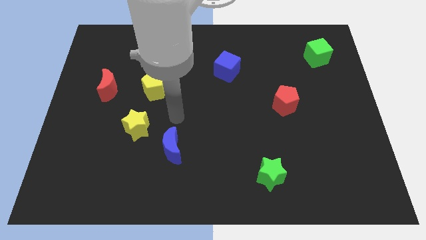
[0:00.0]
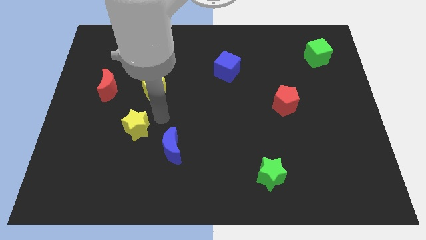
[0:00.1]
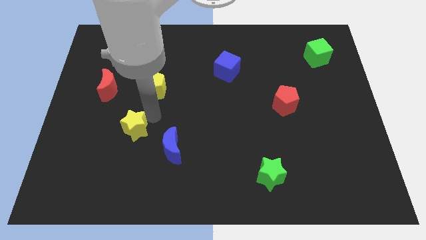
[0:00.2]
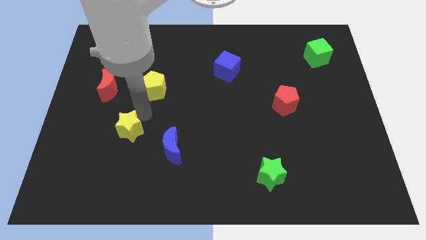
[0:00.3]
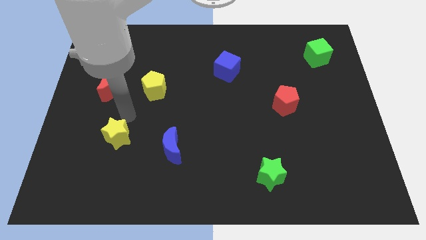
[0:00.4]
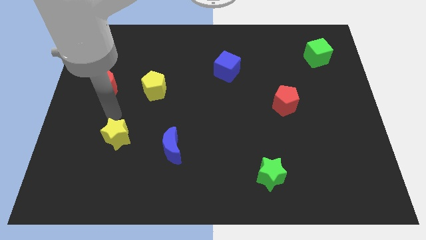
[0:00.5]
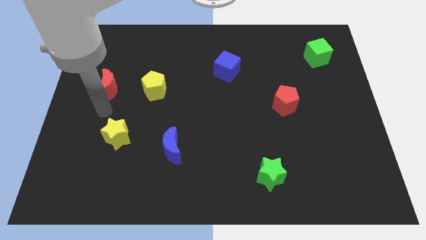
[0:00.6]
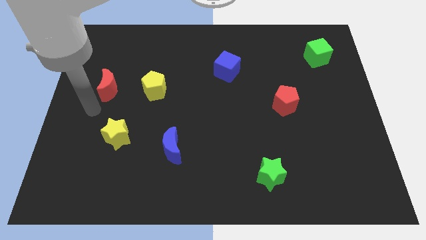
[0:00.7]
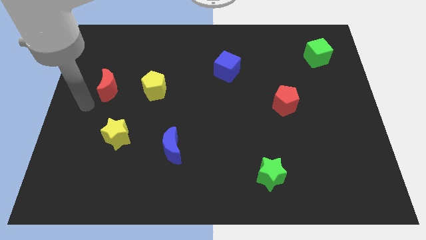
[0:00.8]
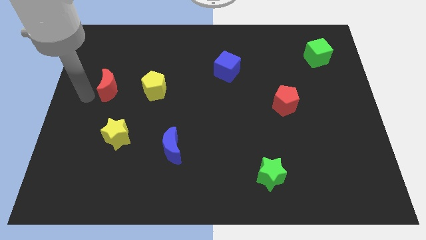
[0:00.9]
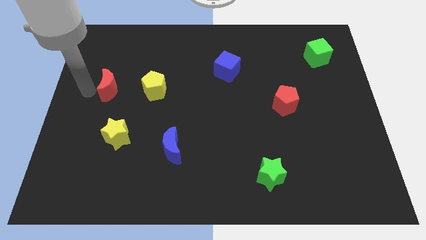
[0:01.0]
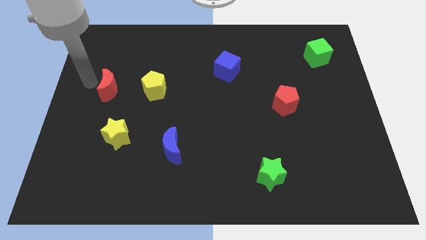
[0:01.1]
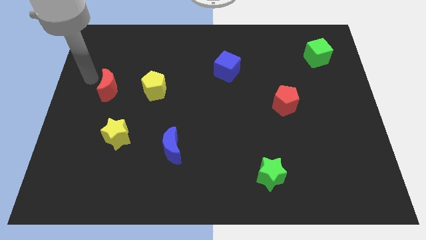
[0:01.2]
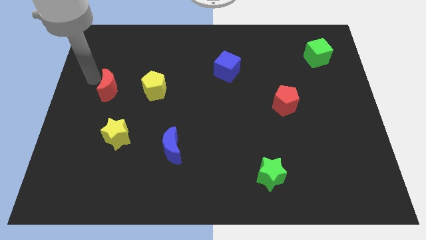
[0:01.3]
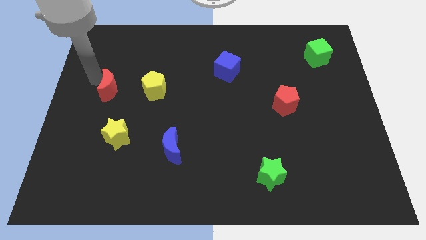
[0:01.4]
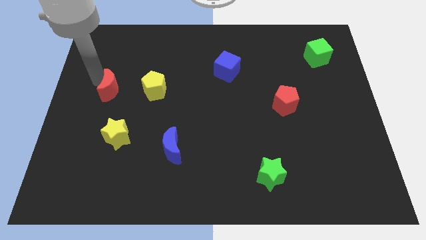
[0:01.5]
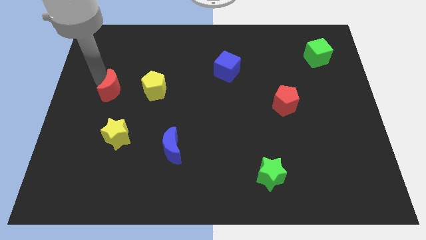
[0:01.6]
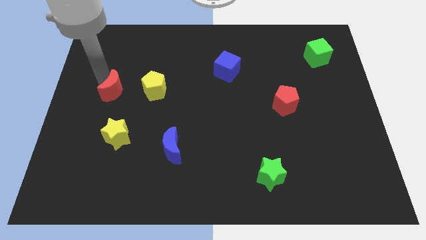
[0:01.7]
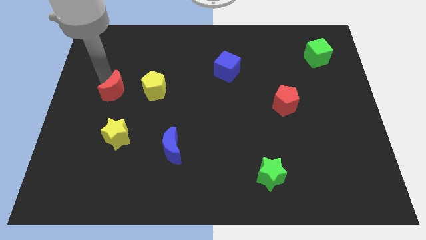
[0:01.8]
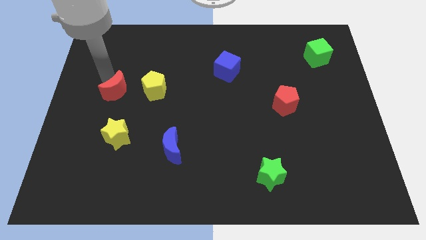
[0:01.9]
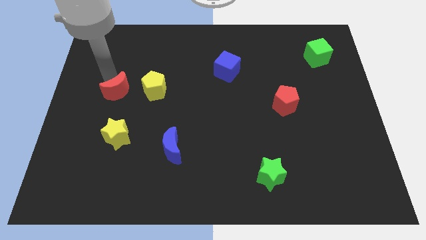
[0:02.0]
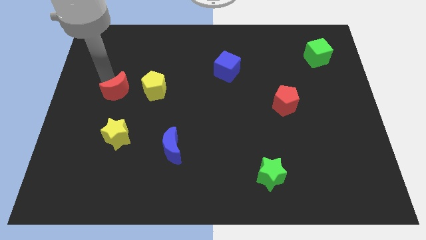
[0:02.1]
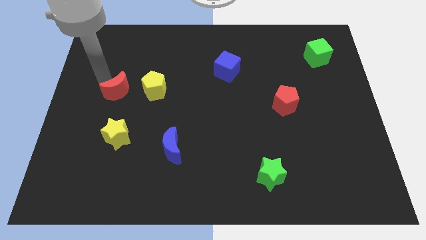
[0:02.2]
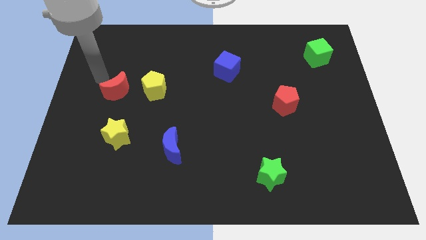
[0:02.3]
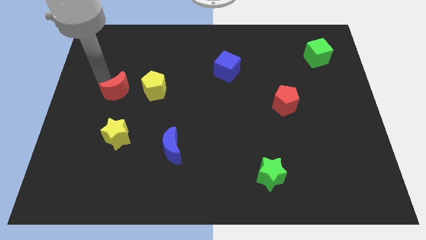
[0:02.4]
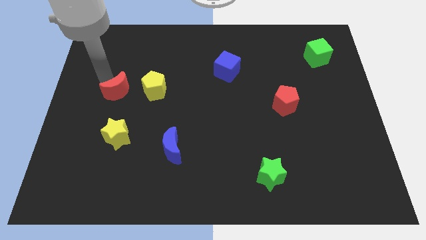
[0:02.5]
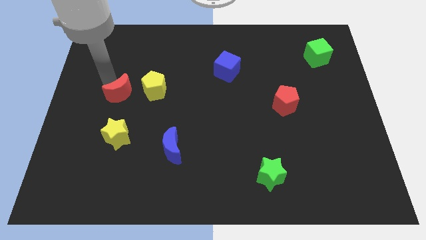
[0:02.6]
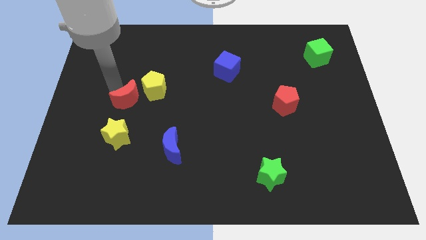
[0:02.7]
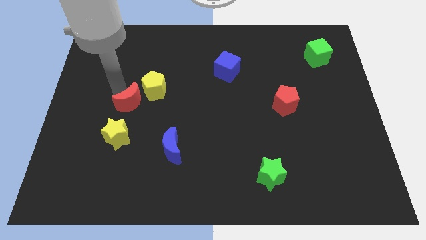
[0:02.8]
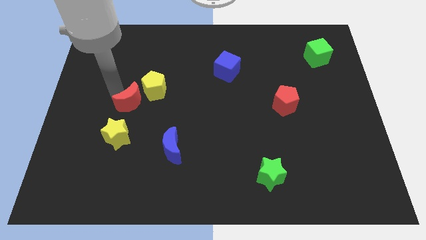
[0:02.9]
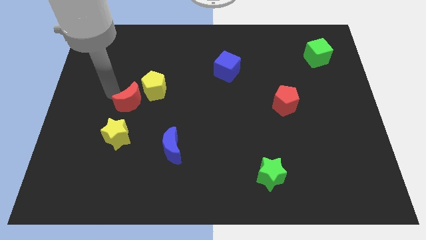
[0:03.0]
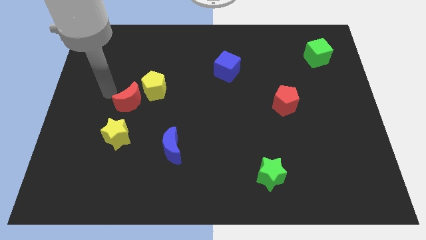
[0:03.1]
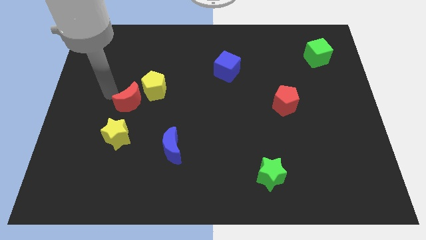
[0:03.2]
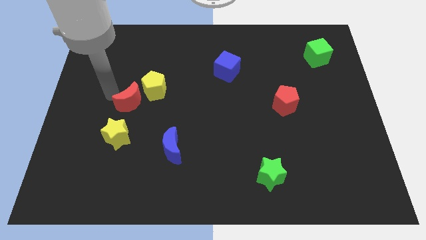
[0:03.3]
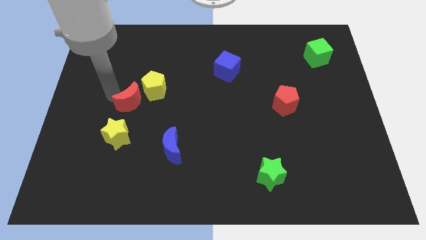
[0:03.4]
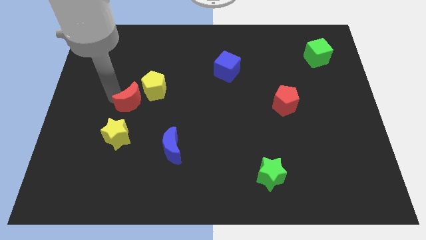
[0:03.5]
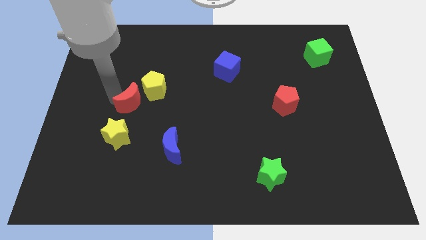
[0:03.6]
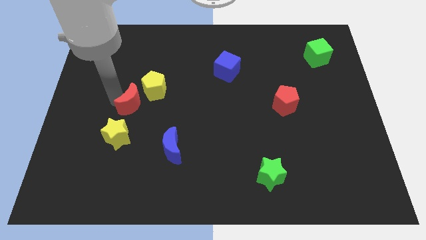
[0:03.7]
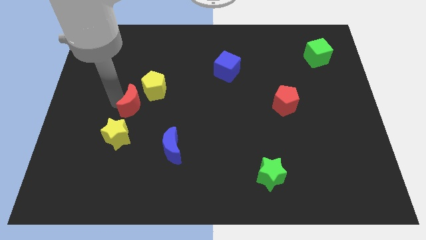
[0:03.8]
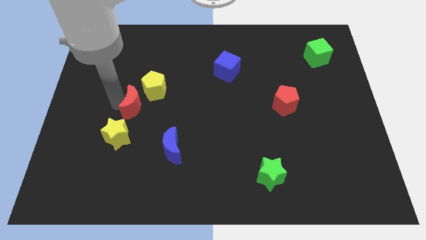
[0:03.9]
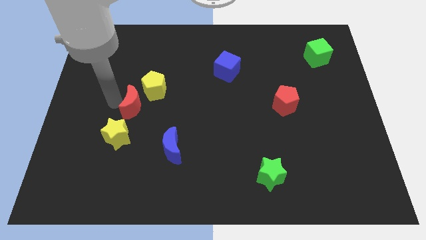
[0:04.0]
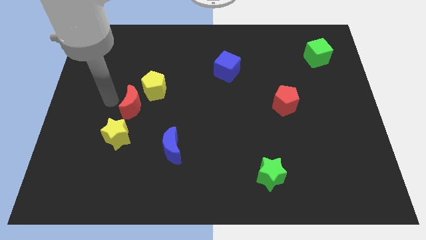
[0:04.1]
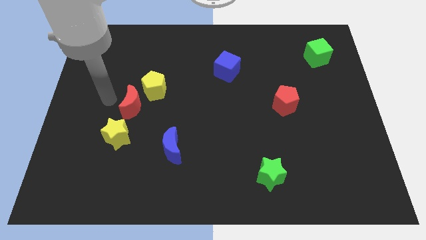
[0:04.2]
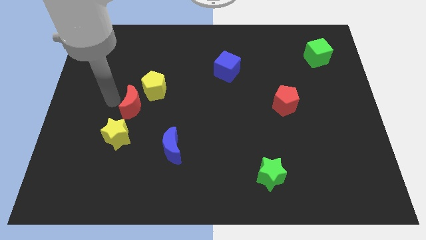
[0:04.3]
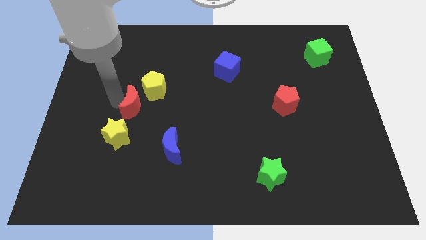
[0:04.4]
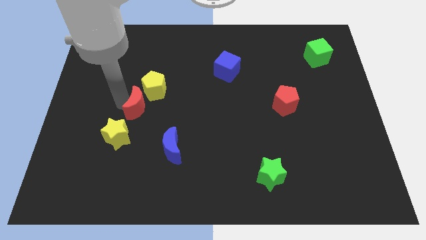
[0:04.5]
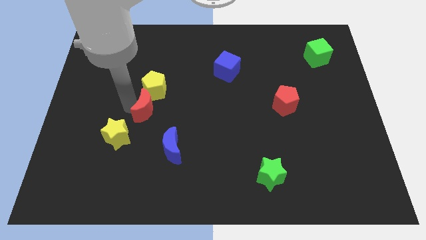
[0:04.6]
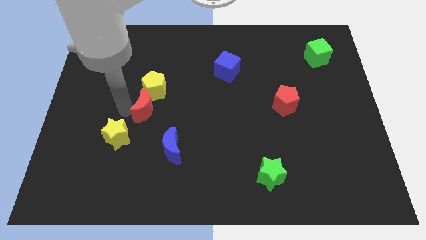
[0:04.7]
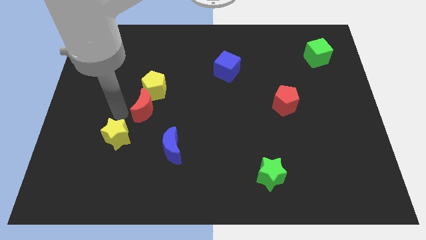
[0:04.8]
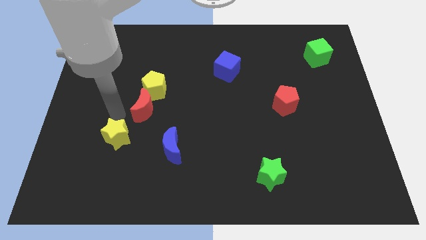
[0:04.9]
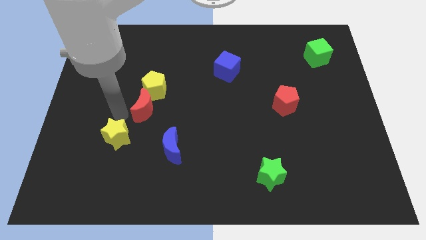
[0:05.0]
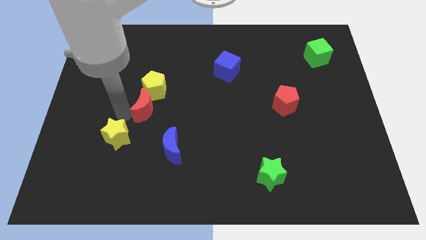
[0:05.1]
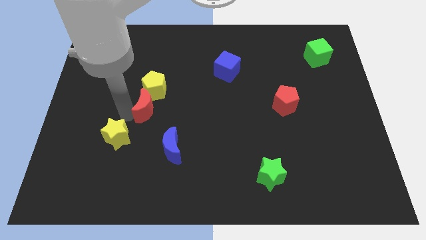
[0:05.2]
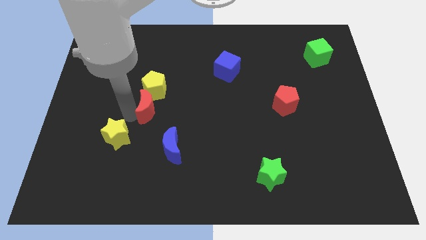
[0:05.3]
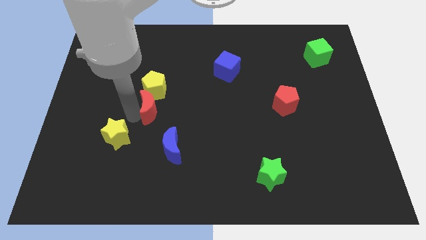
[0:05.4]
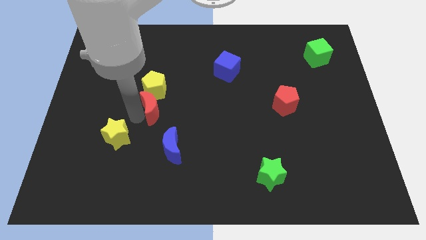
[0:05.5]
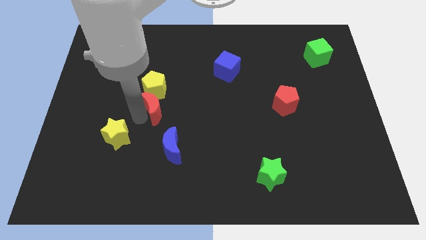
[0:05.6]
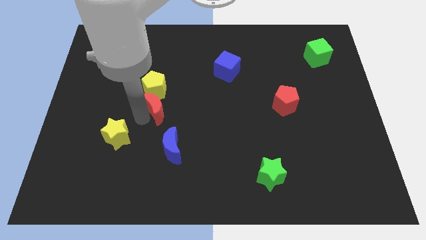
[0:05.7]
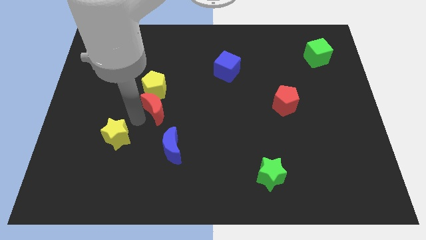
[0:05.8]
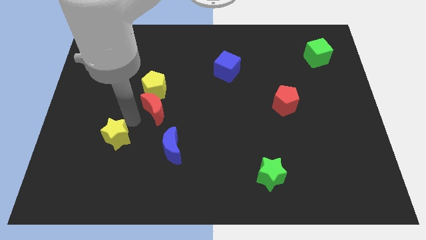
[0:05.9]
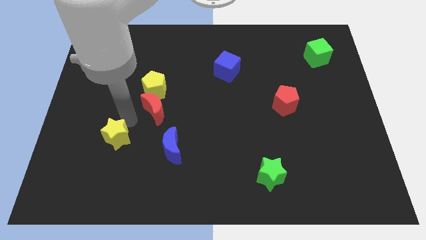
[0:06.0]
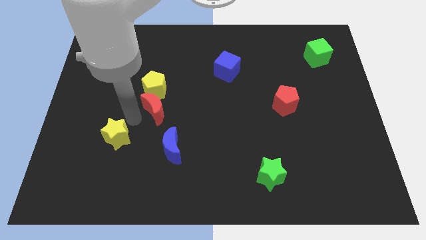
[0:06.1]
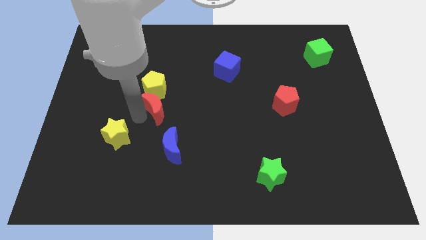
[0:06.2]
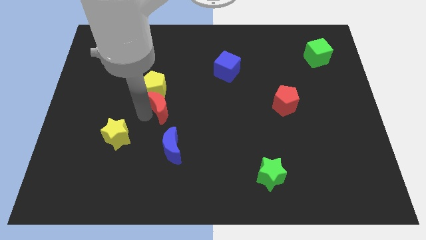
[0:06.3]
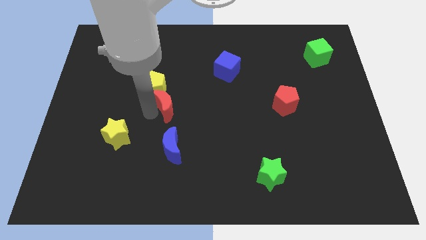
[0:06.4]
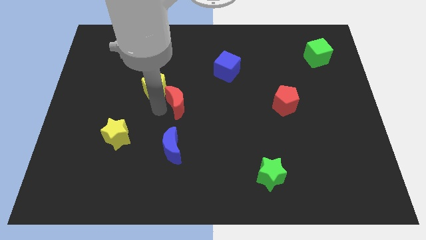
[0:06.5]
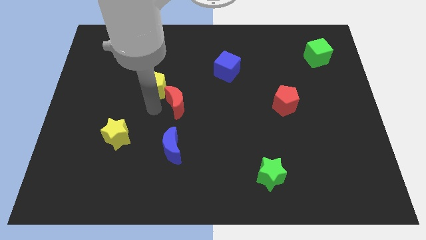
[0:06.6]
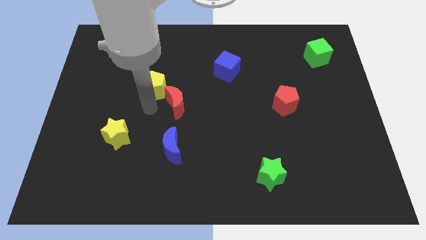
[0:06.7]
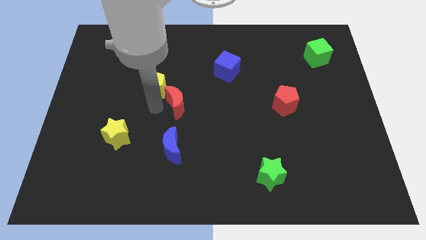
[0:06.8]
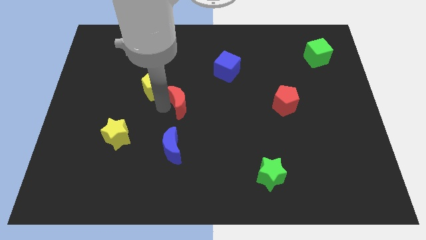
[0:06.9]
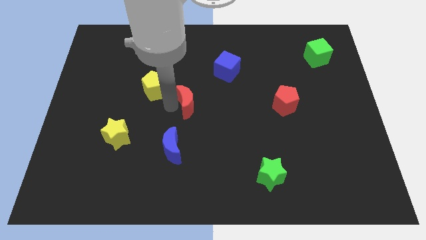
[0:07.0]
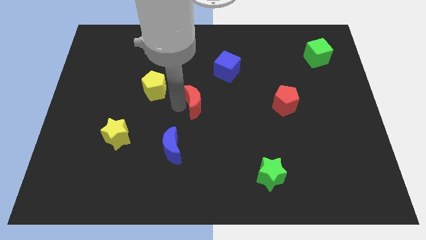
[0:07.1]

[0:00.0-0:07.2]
slide the red moon to the right

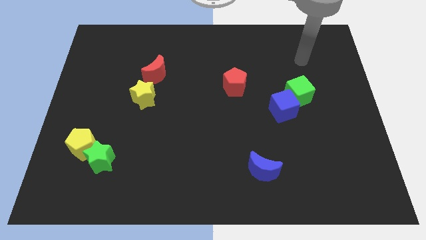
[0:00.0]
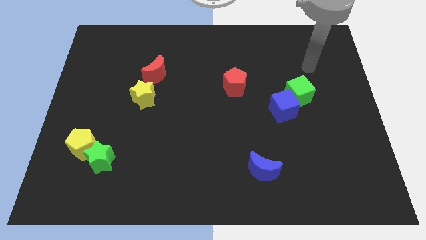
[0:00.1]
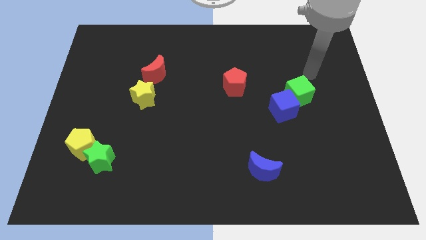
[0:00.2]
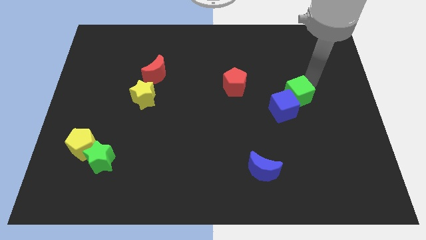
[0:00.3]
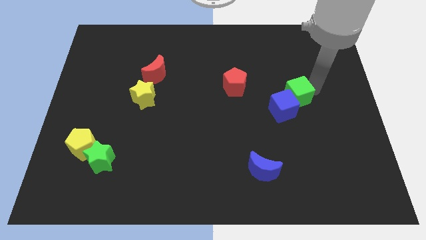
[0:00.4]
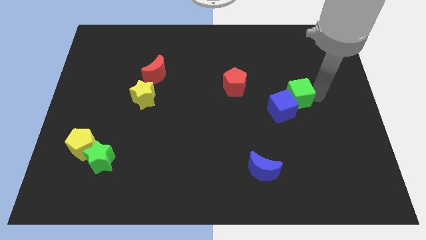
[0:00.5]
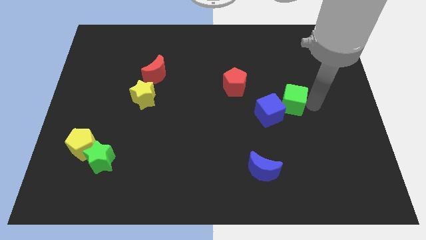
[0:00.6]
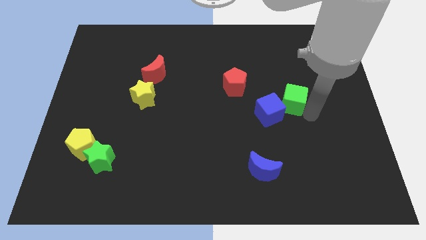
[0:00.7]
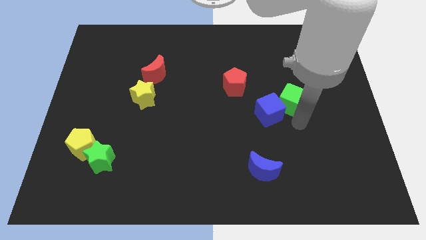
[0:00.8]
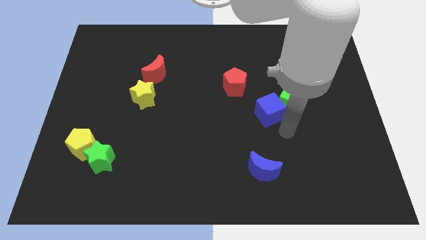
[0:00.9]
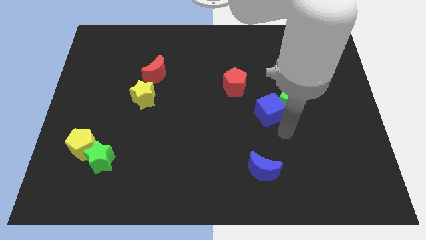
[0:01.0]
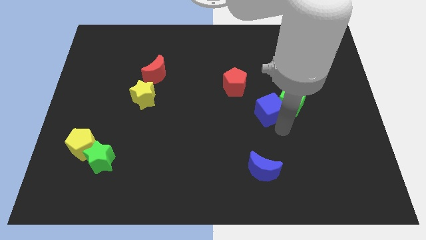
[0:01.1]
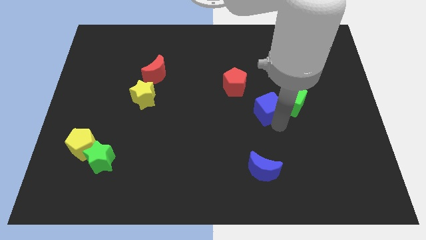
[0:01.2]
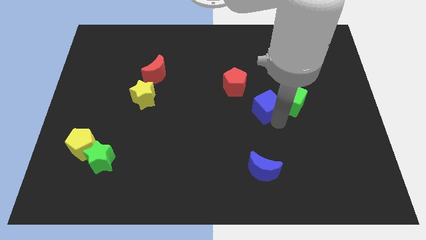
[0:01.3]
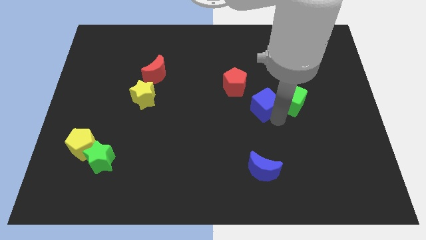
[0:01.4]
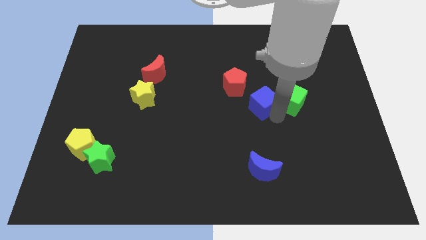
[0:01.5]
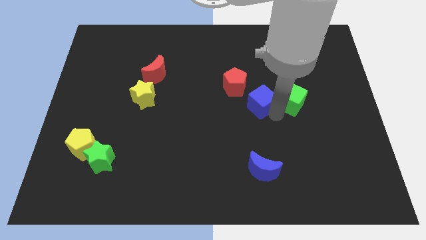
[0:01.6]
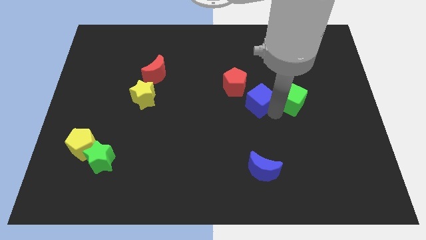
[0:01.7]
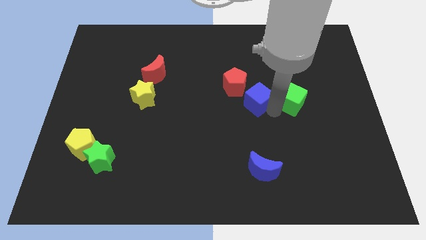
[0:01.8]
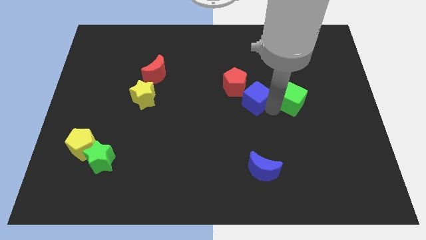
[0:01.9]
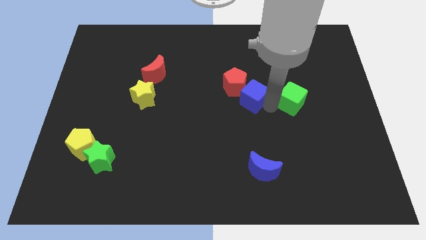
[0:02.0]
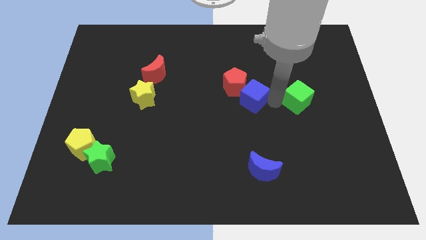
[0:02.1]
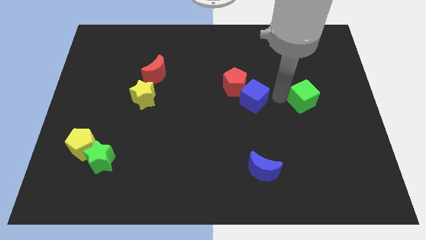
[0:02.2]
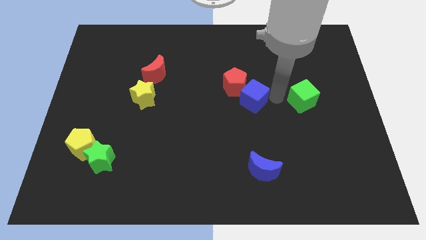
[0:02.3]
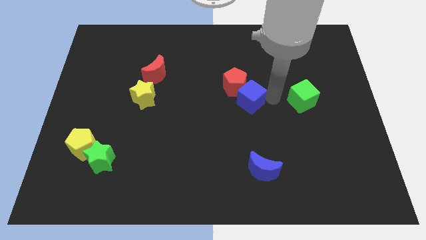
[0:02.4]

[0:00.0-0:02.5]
move the blue cube left slightly
